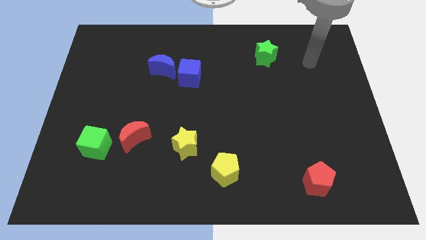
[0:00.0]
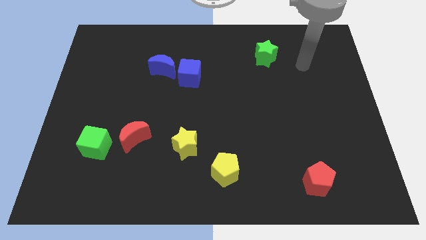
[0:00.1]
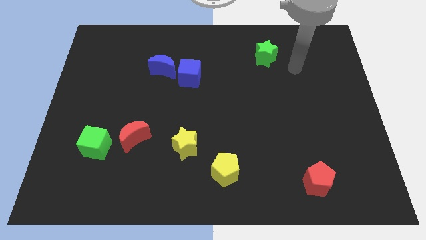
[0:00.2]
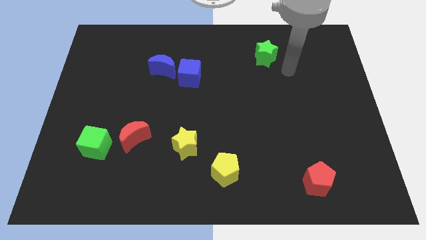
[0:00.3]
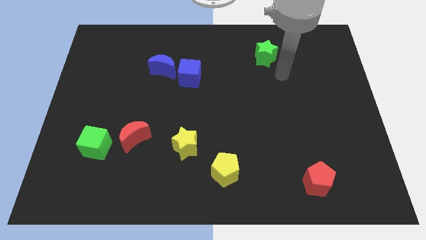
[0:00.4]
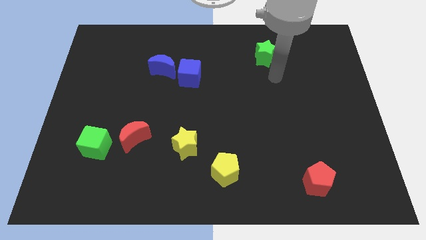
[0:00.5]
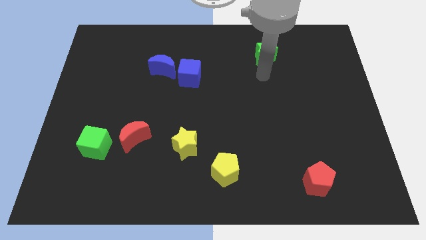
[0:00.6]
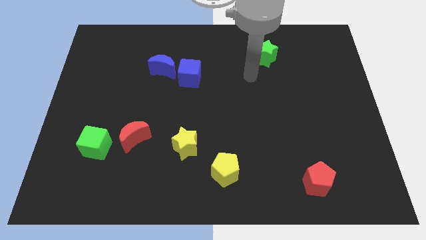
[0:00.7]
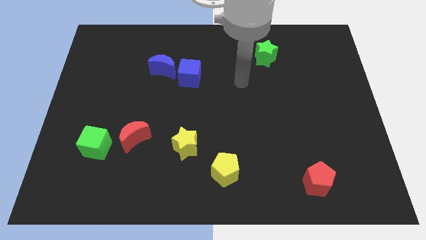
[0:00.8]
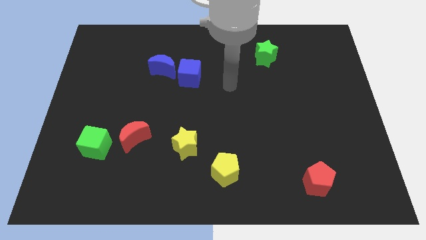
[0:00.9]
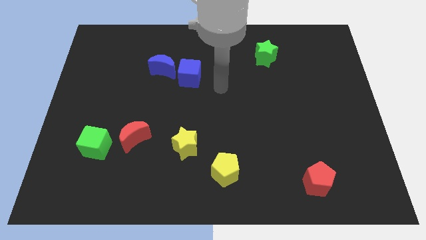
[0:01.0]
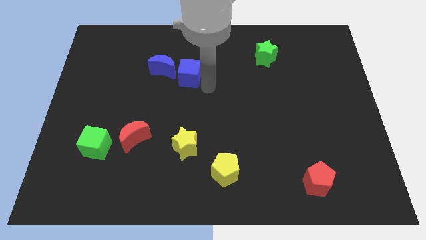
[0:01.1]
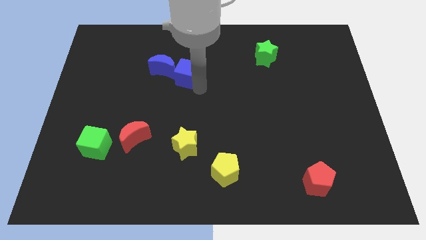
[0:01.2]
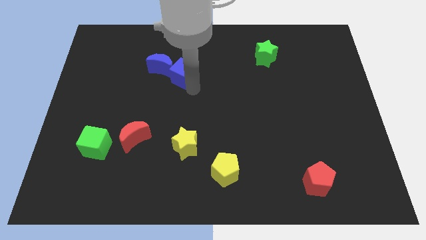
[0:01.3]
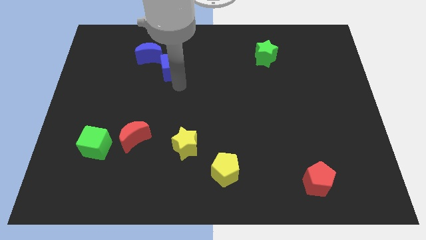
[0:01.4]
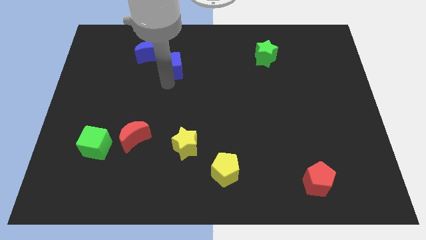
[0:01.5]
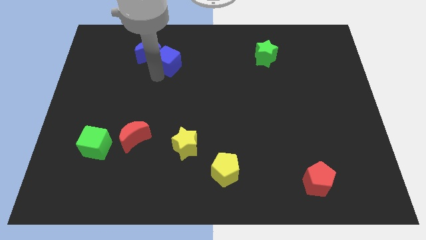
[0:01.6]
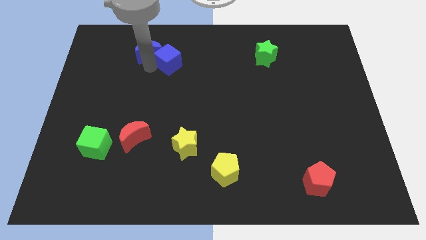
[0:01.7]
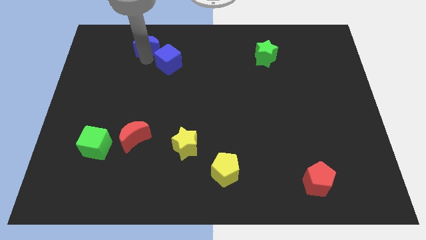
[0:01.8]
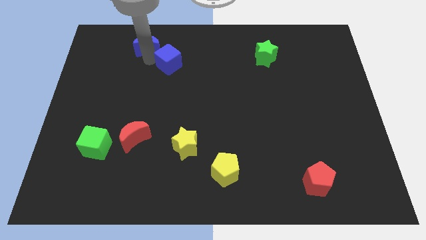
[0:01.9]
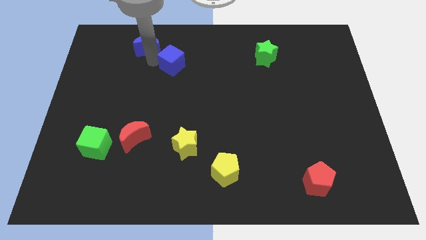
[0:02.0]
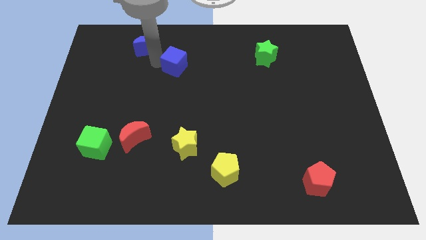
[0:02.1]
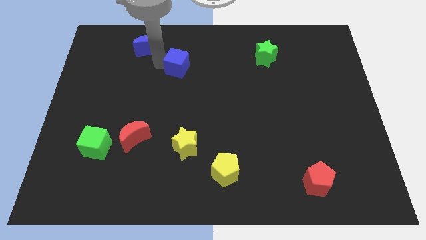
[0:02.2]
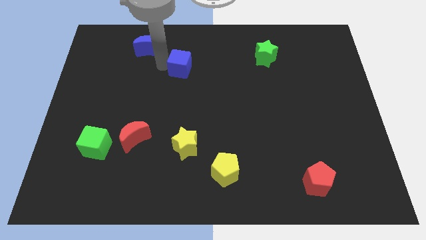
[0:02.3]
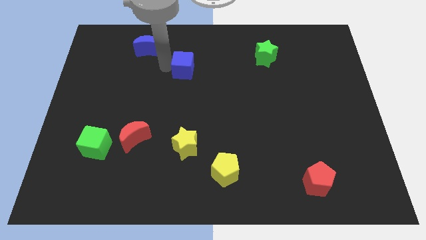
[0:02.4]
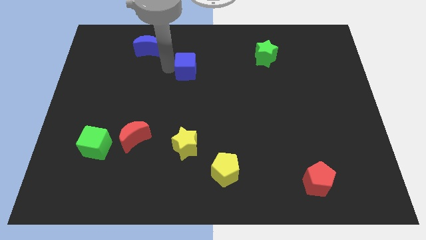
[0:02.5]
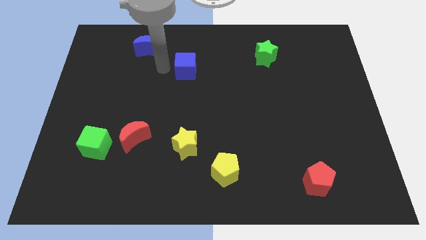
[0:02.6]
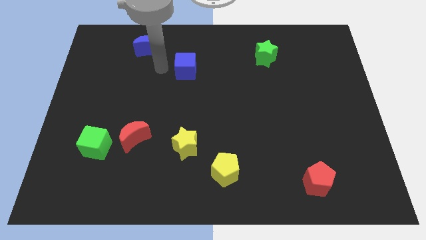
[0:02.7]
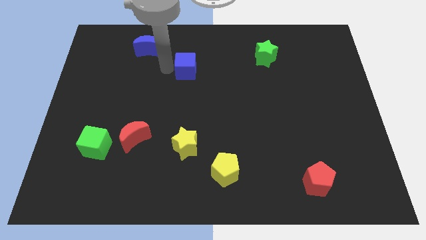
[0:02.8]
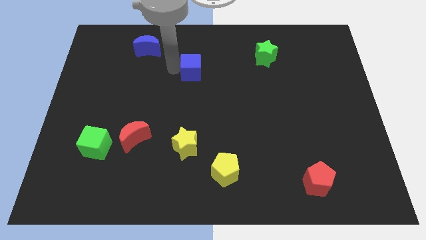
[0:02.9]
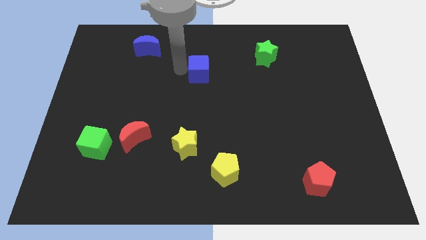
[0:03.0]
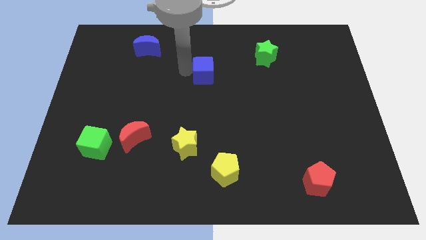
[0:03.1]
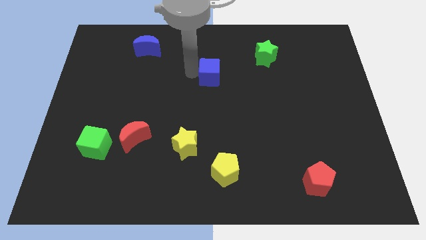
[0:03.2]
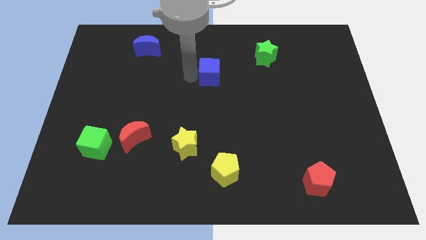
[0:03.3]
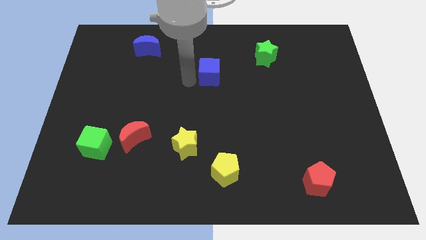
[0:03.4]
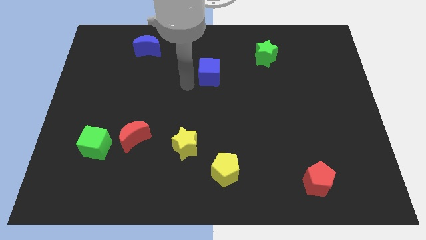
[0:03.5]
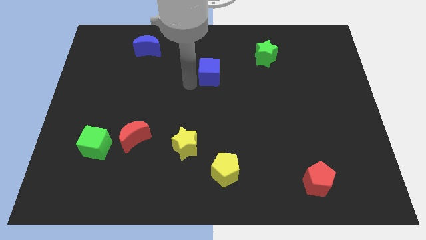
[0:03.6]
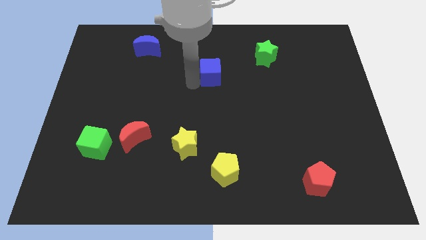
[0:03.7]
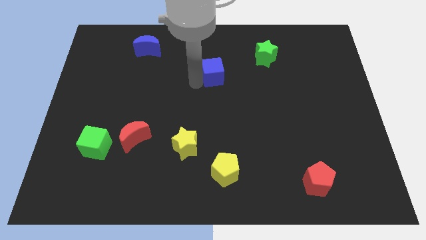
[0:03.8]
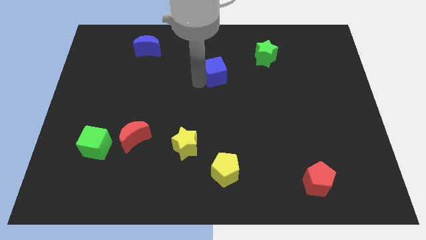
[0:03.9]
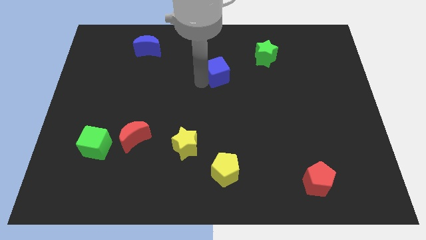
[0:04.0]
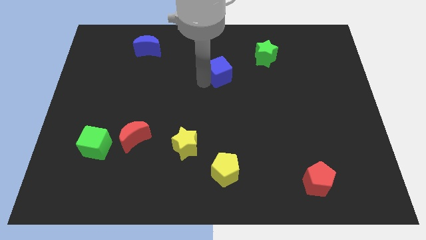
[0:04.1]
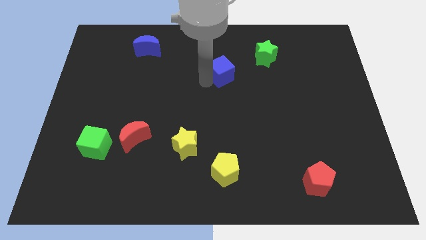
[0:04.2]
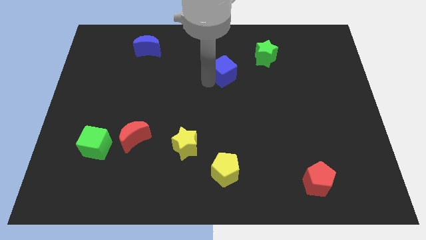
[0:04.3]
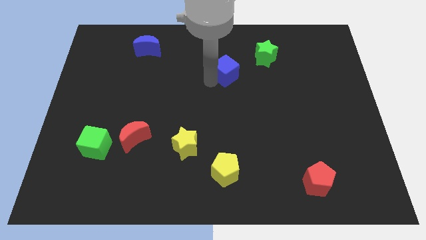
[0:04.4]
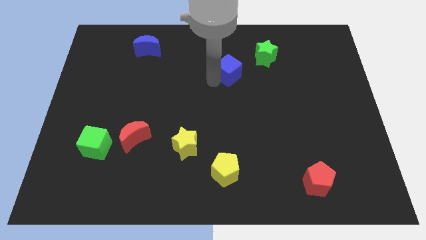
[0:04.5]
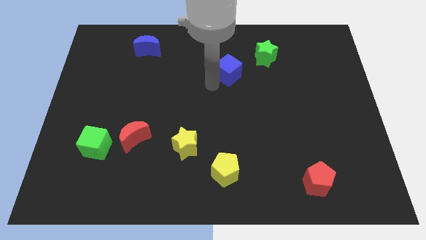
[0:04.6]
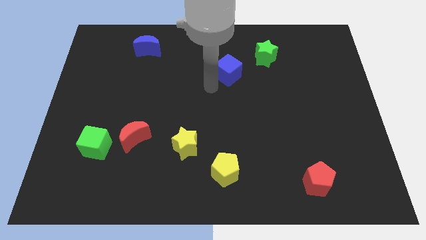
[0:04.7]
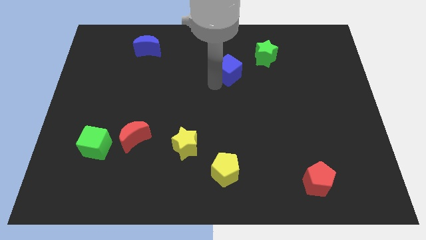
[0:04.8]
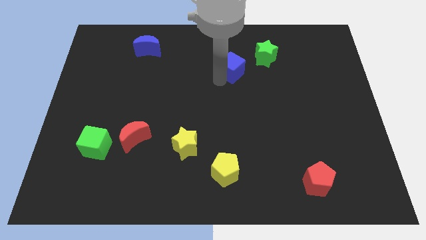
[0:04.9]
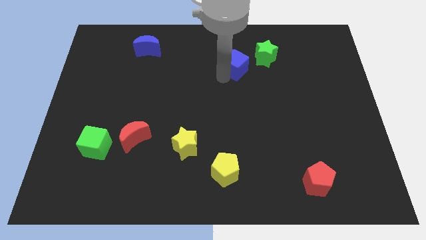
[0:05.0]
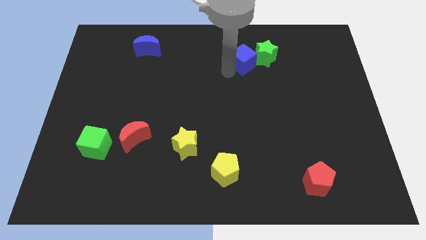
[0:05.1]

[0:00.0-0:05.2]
move the blue cube to the green star

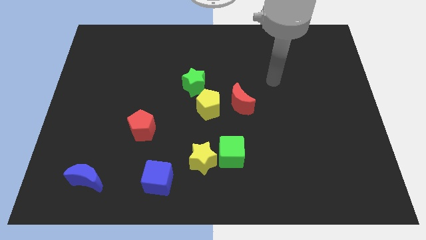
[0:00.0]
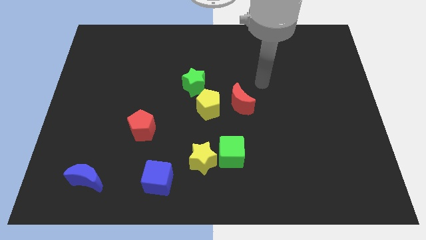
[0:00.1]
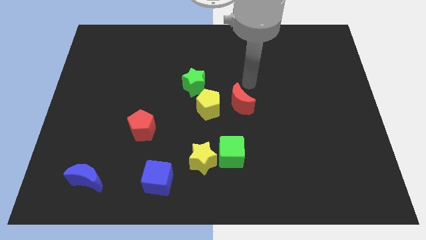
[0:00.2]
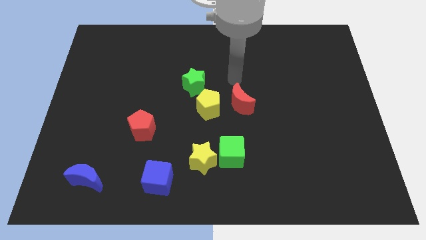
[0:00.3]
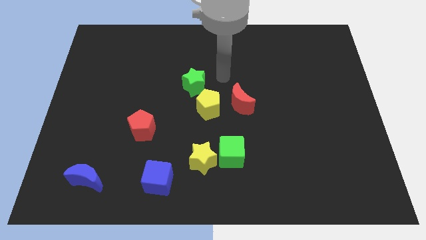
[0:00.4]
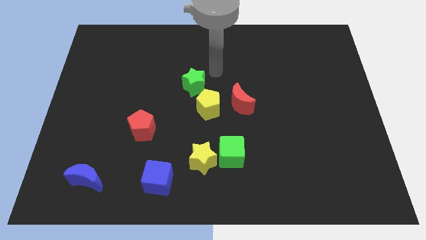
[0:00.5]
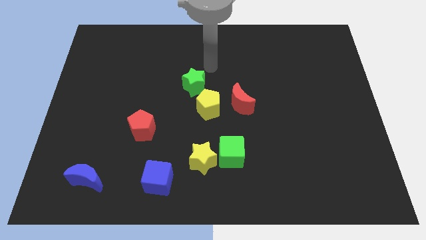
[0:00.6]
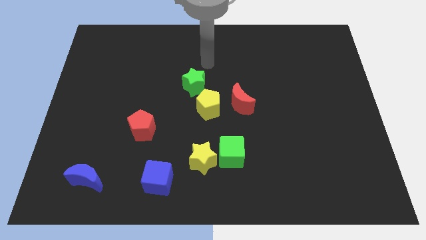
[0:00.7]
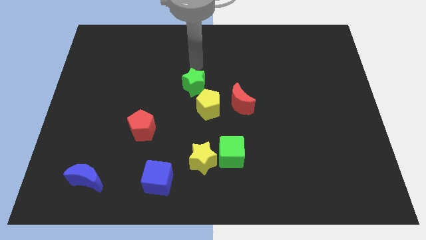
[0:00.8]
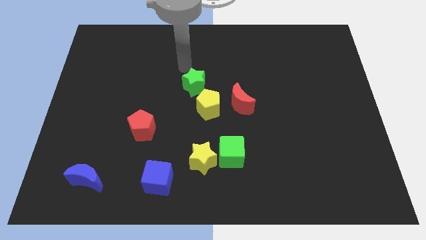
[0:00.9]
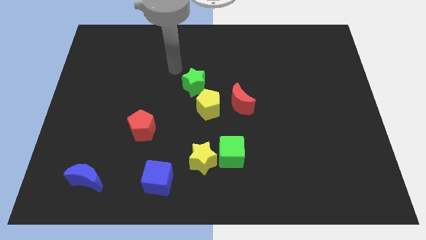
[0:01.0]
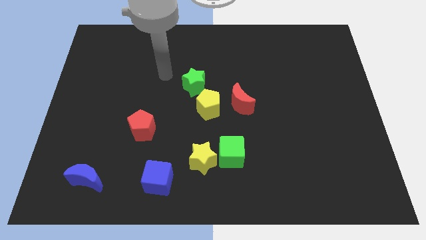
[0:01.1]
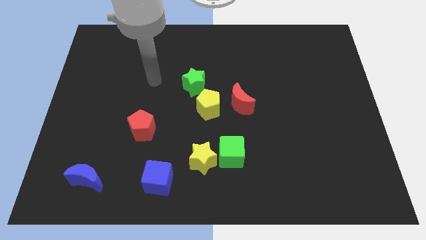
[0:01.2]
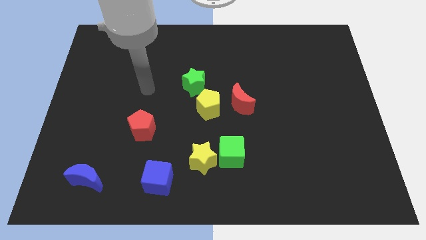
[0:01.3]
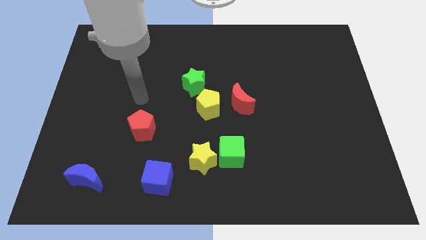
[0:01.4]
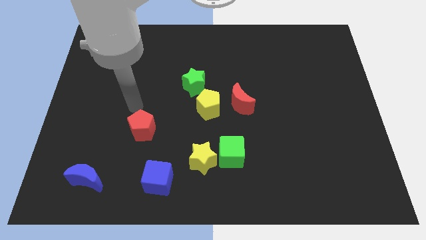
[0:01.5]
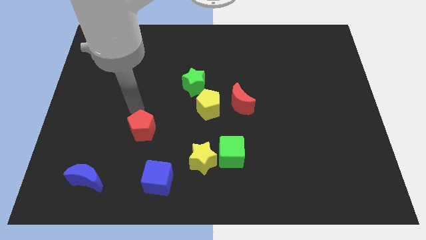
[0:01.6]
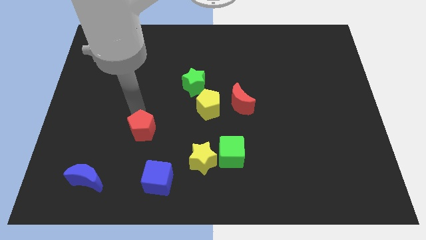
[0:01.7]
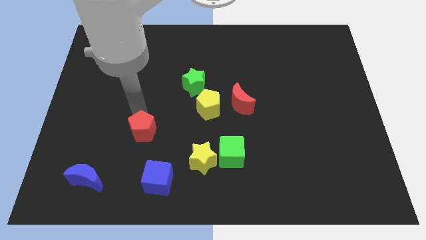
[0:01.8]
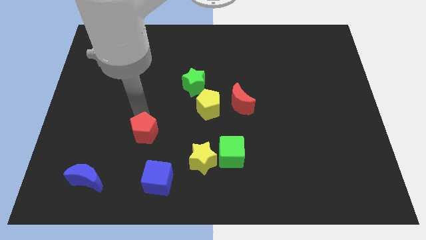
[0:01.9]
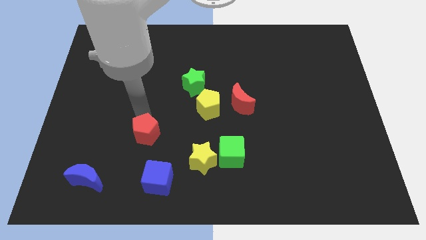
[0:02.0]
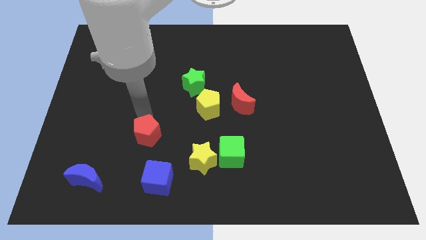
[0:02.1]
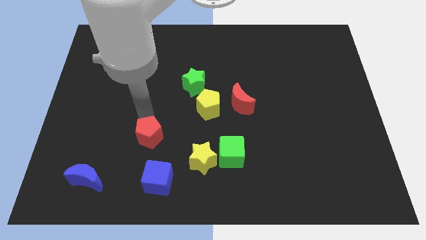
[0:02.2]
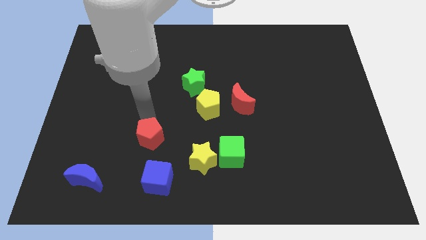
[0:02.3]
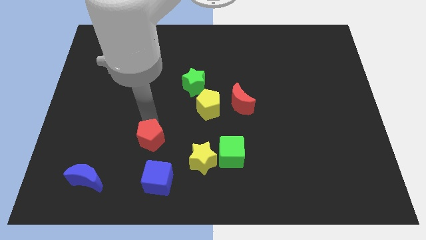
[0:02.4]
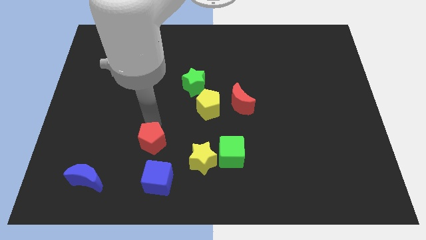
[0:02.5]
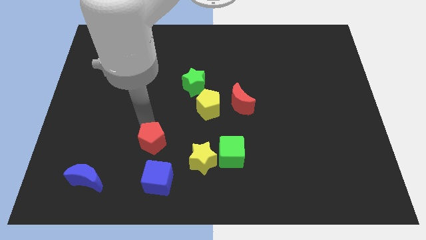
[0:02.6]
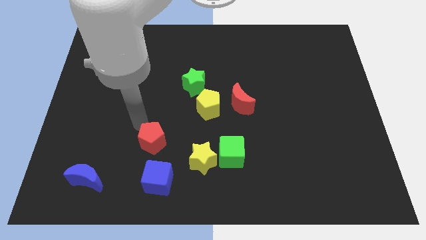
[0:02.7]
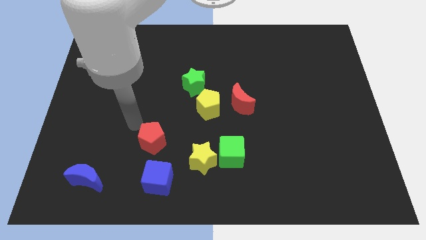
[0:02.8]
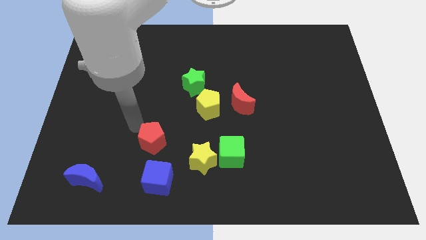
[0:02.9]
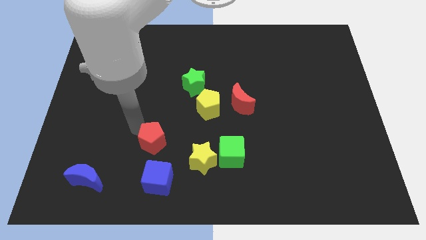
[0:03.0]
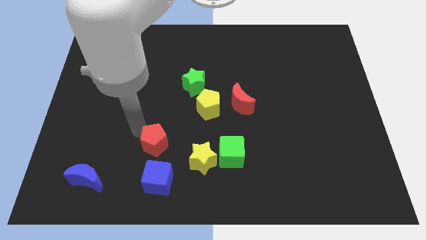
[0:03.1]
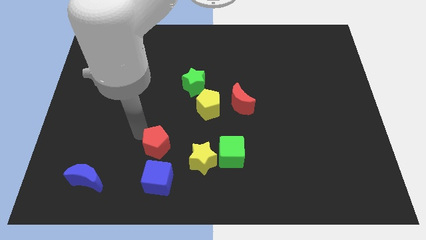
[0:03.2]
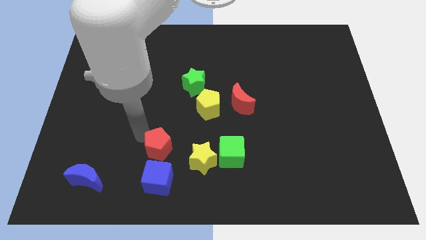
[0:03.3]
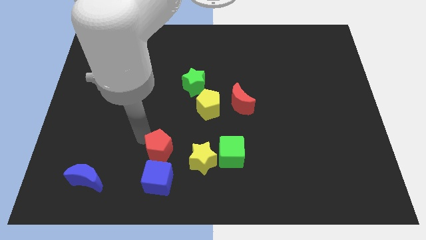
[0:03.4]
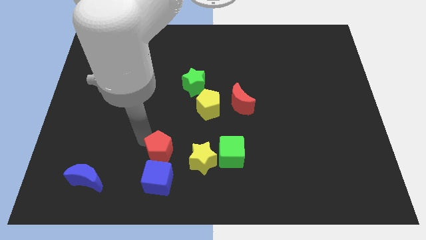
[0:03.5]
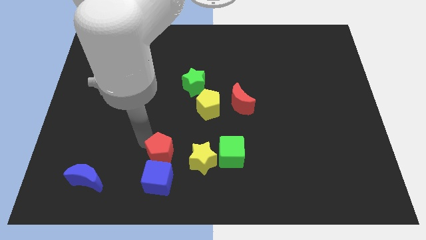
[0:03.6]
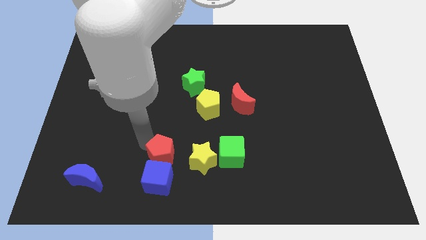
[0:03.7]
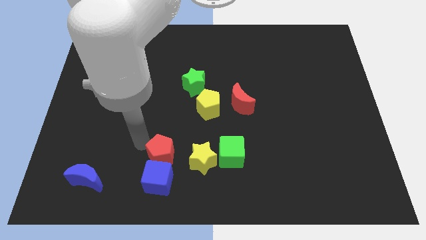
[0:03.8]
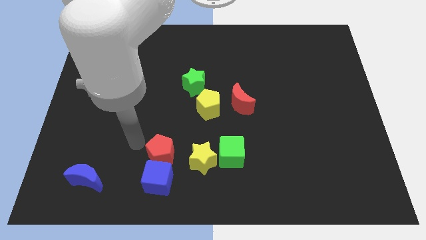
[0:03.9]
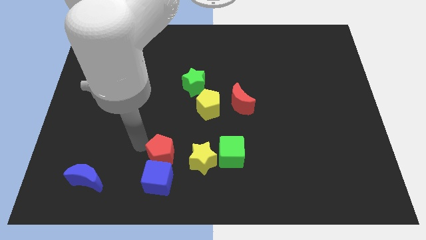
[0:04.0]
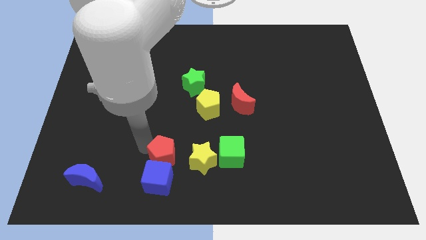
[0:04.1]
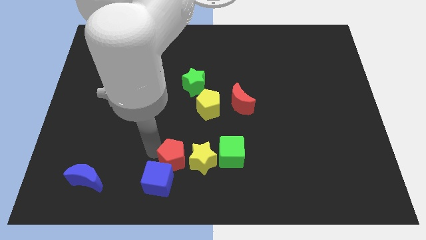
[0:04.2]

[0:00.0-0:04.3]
move the red pentagon to the yellow star
